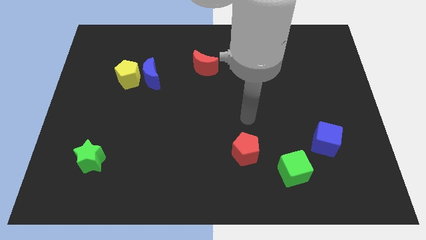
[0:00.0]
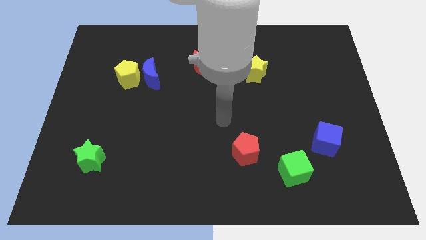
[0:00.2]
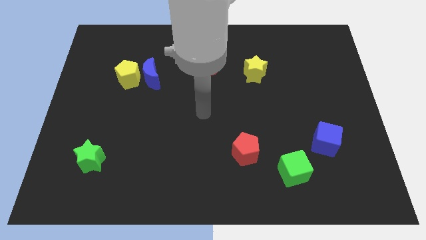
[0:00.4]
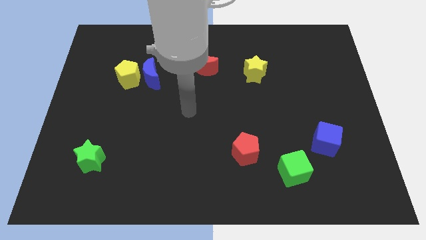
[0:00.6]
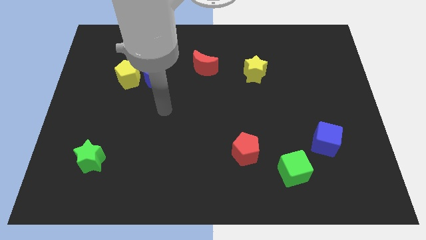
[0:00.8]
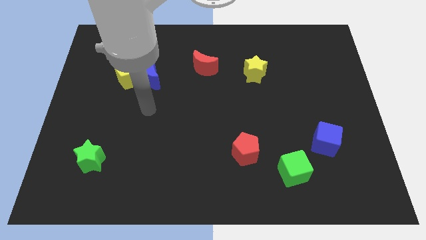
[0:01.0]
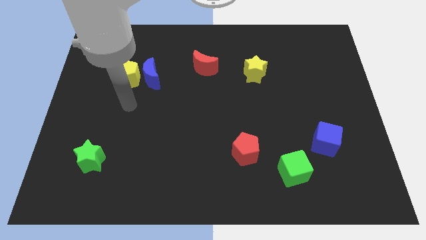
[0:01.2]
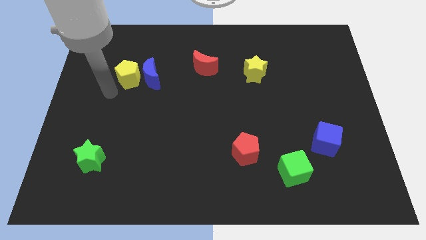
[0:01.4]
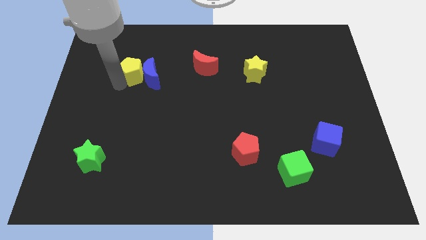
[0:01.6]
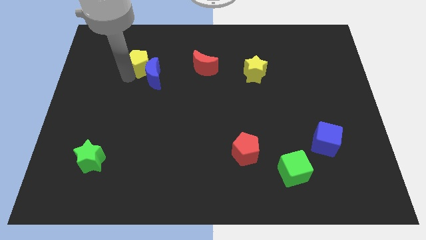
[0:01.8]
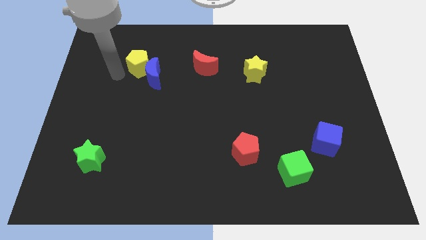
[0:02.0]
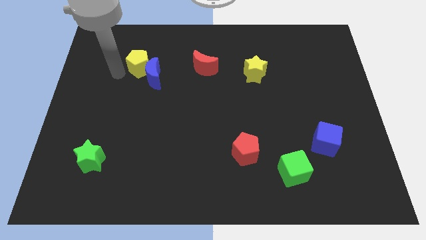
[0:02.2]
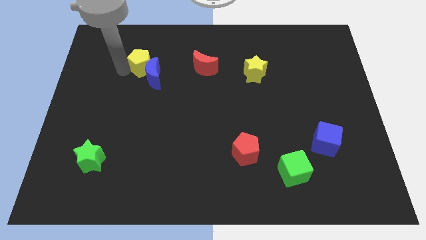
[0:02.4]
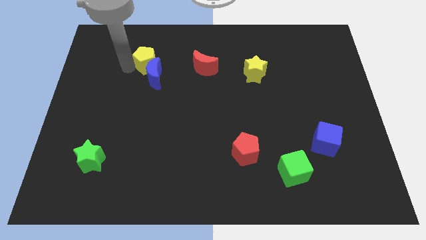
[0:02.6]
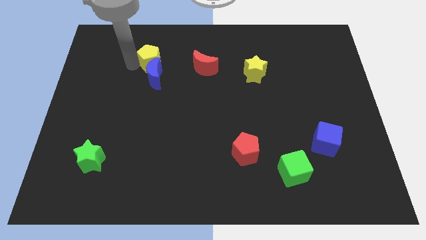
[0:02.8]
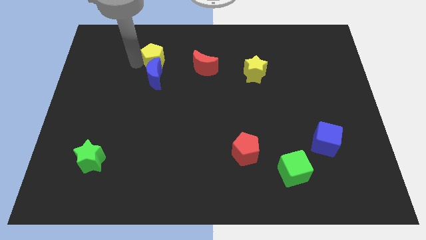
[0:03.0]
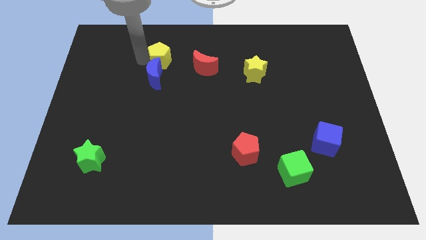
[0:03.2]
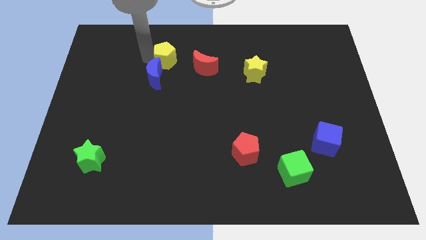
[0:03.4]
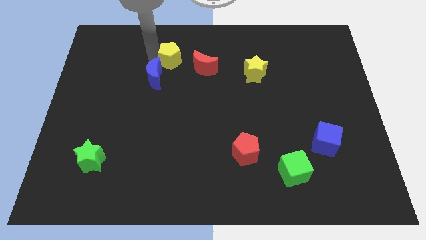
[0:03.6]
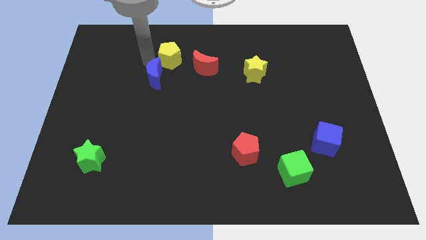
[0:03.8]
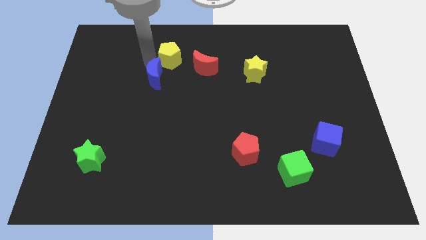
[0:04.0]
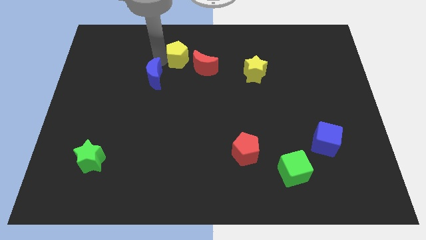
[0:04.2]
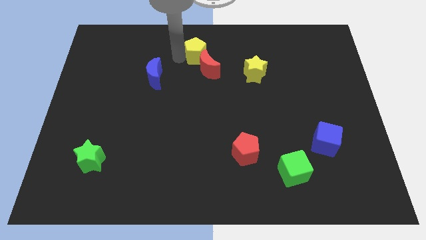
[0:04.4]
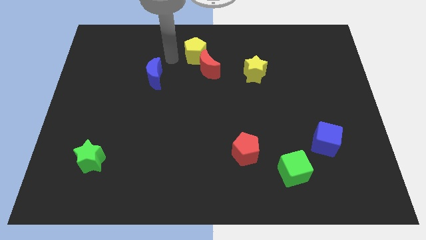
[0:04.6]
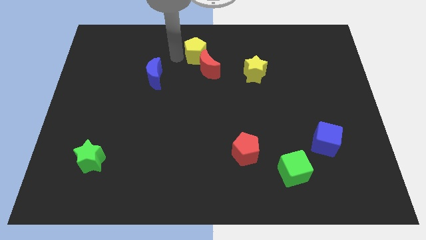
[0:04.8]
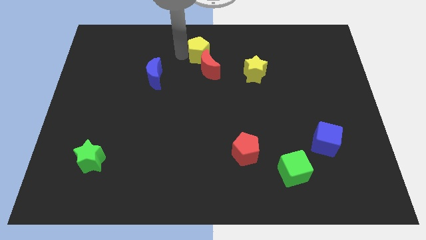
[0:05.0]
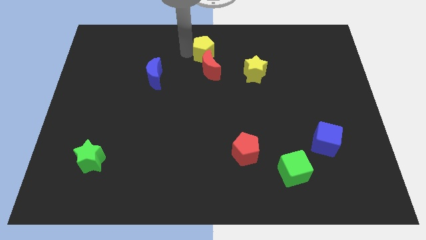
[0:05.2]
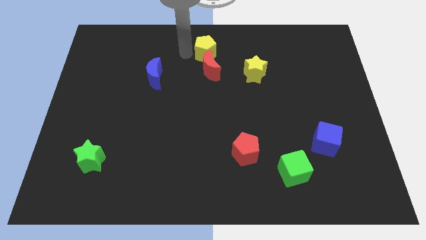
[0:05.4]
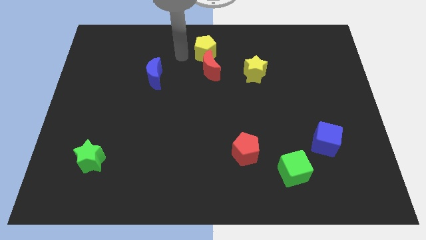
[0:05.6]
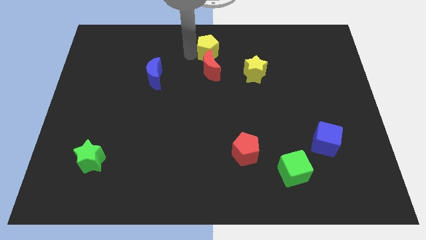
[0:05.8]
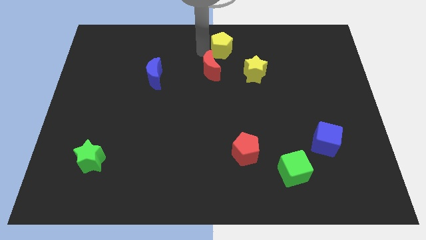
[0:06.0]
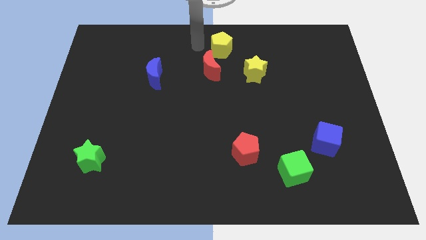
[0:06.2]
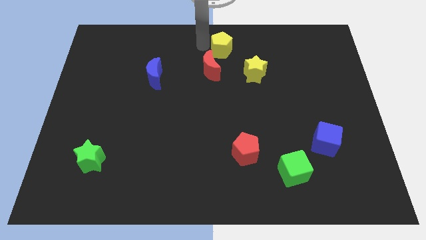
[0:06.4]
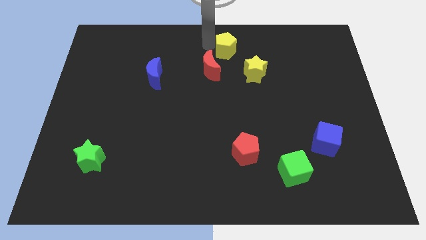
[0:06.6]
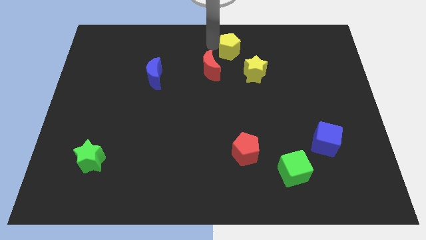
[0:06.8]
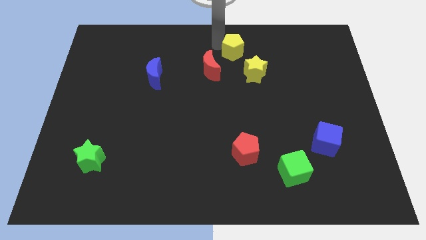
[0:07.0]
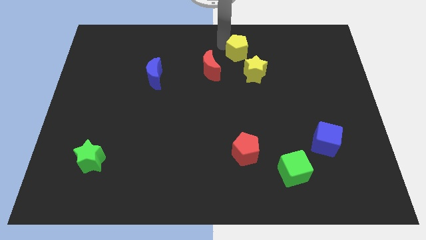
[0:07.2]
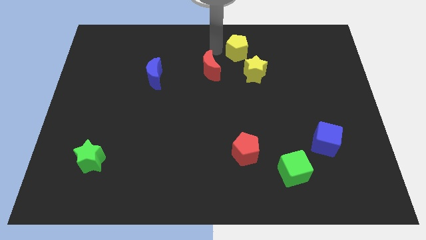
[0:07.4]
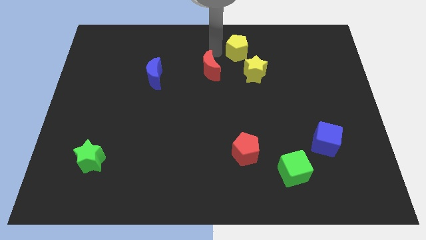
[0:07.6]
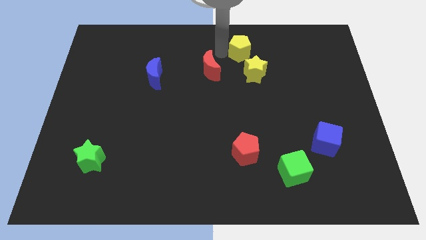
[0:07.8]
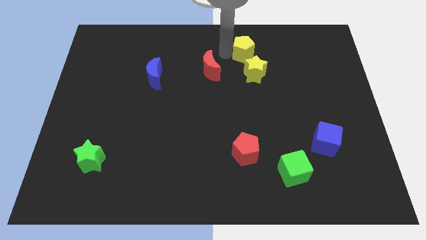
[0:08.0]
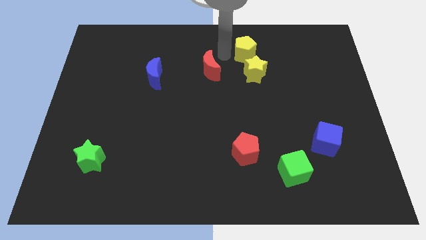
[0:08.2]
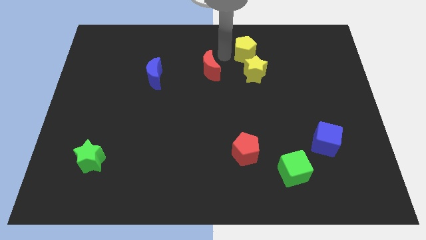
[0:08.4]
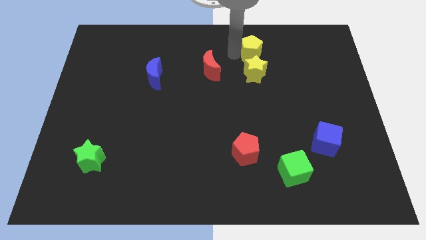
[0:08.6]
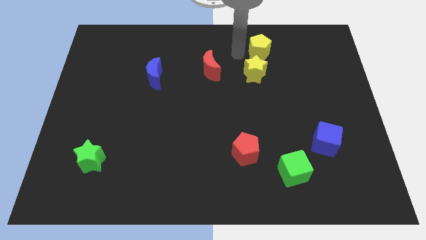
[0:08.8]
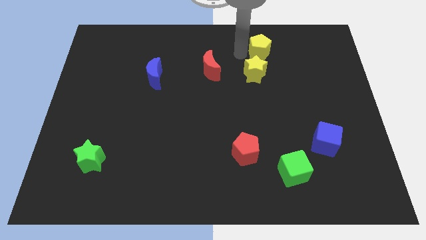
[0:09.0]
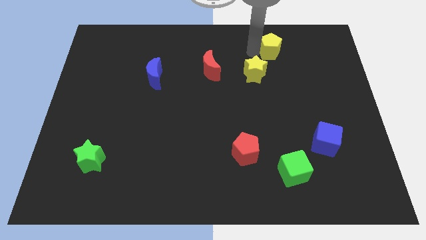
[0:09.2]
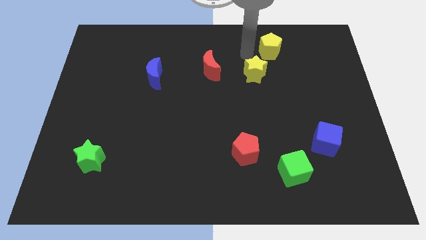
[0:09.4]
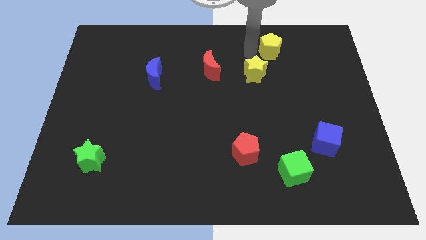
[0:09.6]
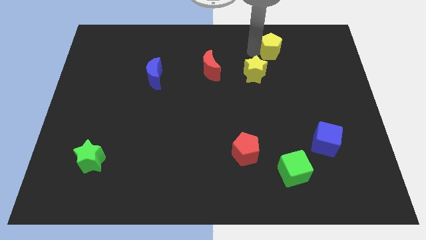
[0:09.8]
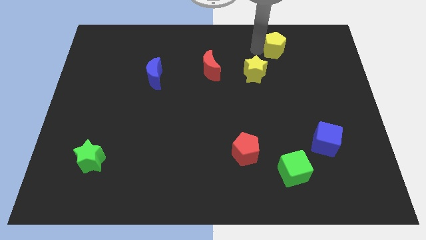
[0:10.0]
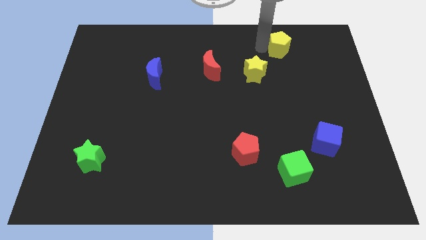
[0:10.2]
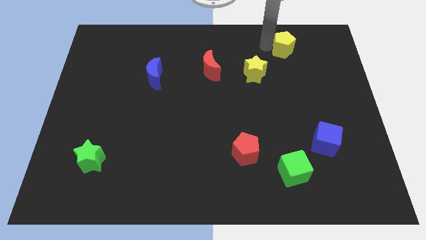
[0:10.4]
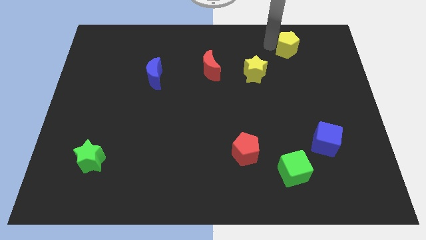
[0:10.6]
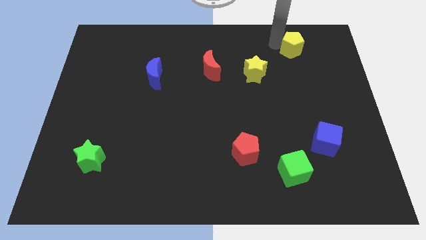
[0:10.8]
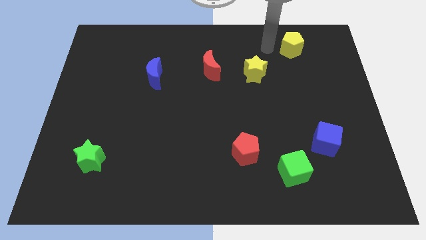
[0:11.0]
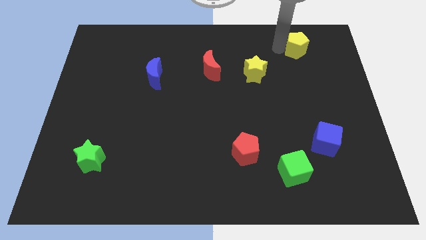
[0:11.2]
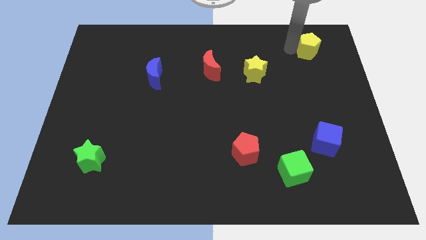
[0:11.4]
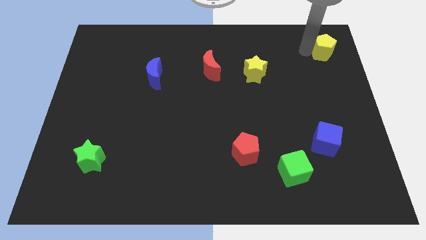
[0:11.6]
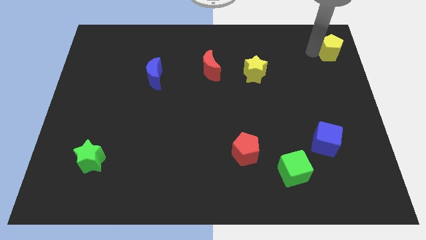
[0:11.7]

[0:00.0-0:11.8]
slide the yellow pentagon to the top right corner
